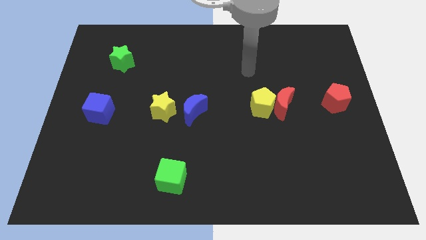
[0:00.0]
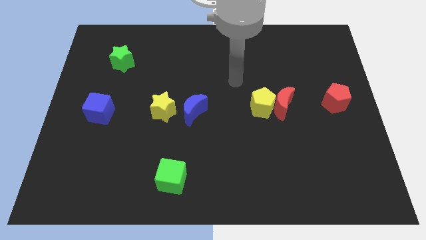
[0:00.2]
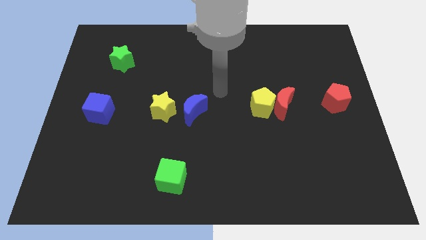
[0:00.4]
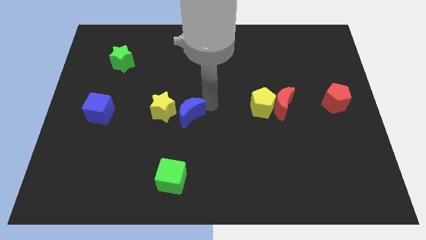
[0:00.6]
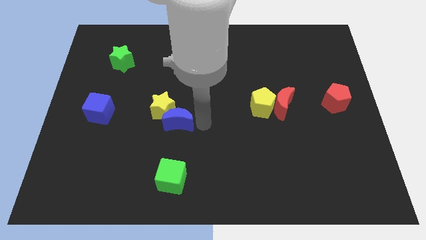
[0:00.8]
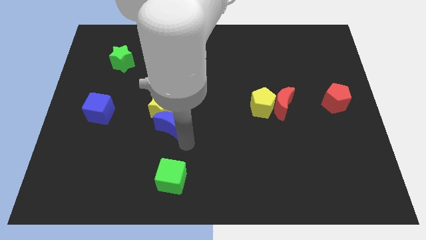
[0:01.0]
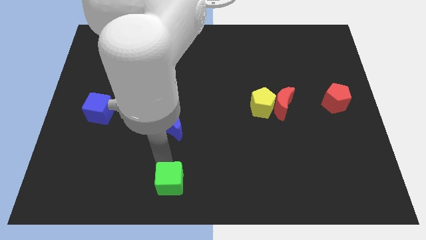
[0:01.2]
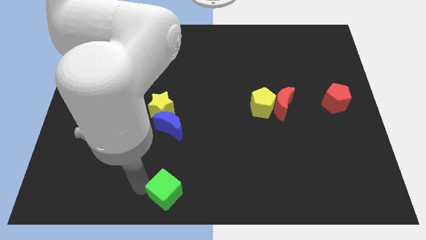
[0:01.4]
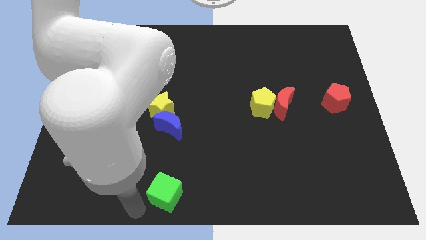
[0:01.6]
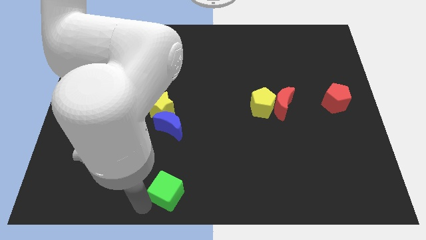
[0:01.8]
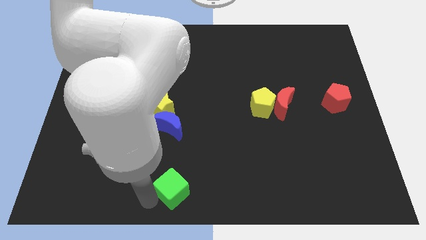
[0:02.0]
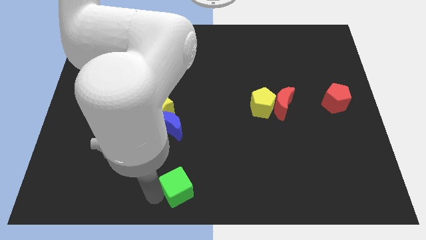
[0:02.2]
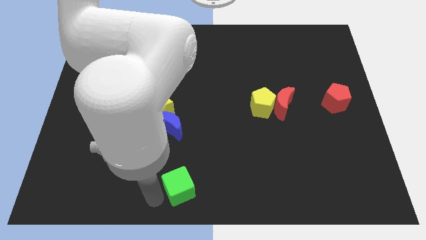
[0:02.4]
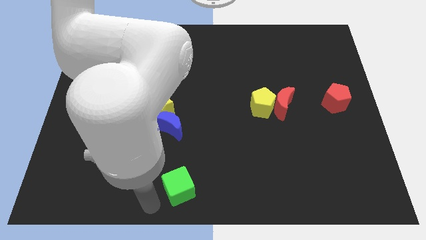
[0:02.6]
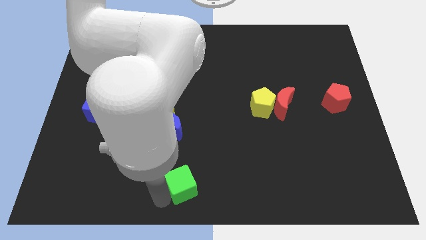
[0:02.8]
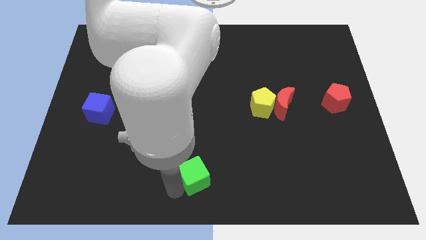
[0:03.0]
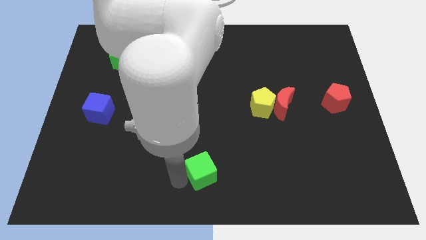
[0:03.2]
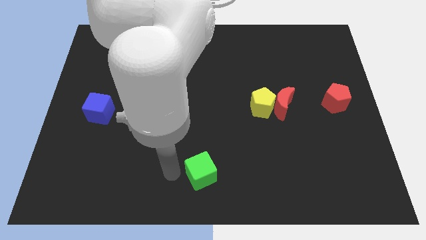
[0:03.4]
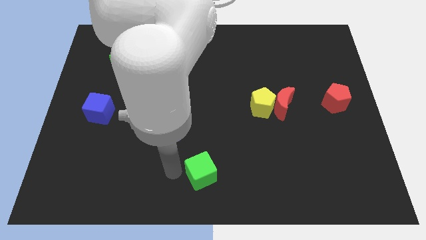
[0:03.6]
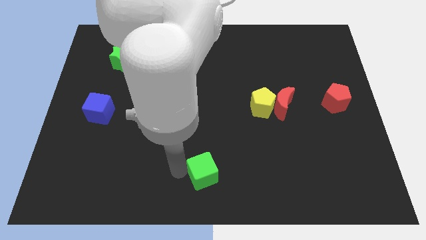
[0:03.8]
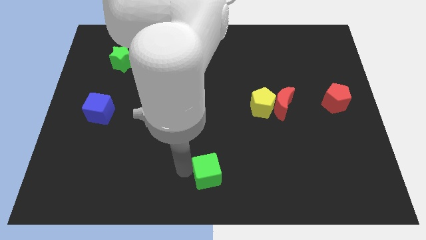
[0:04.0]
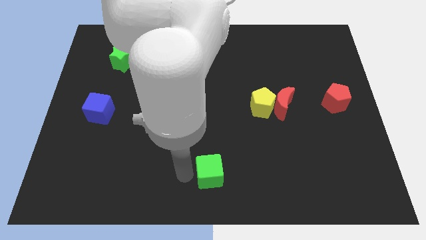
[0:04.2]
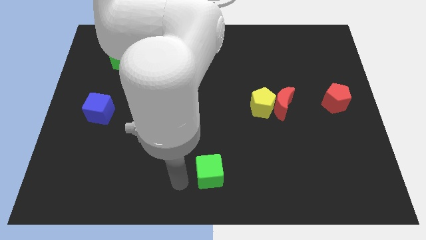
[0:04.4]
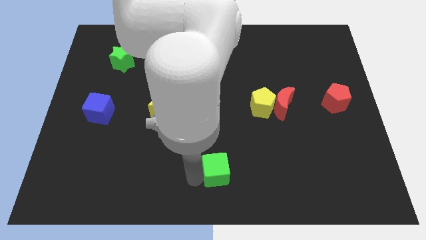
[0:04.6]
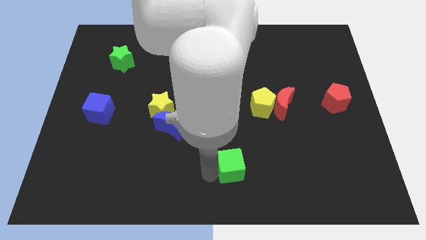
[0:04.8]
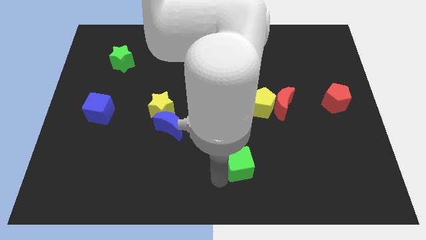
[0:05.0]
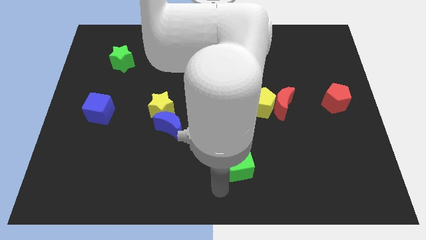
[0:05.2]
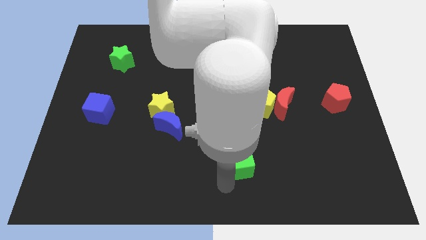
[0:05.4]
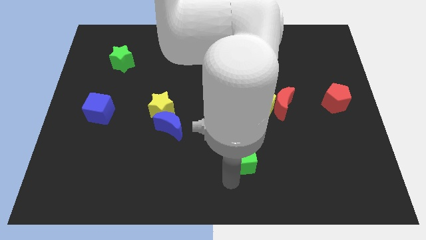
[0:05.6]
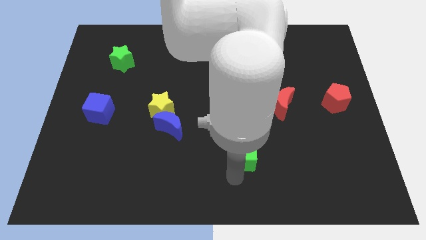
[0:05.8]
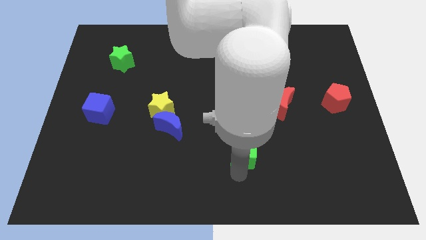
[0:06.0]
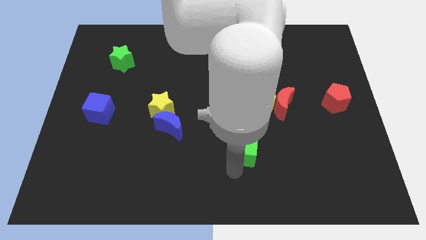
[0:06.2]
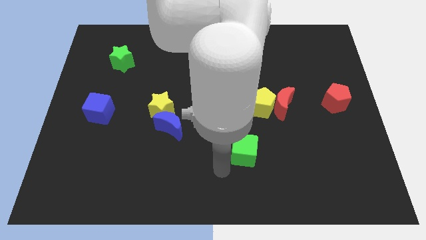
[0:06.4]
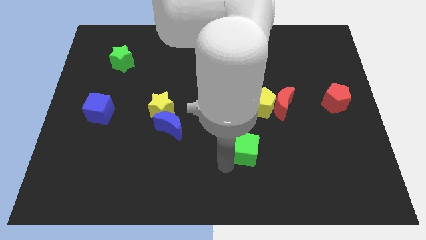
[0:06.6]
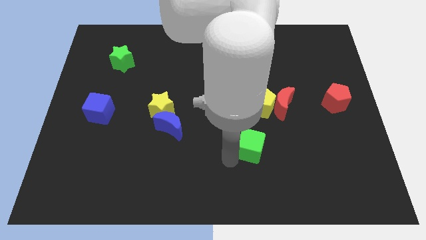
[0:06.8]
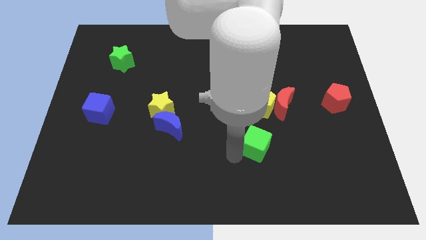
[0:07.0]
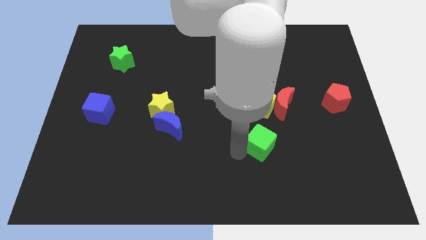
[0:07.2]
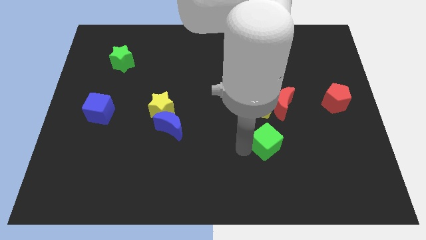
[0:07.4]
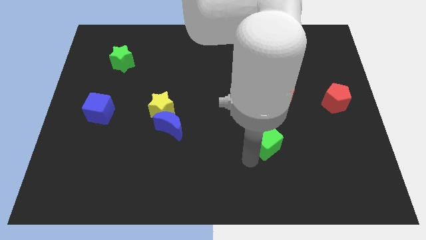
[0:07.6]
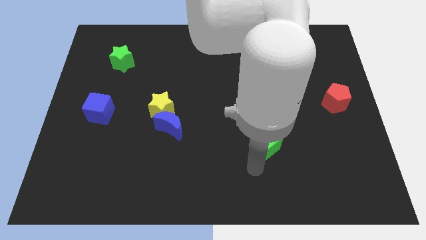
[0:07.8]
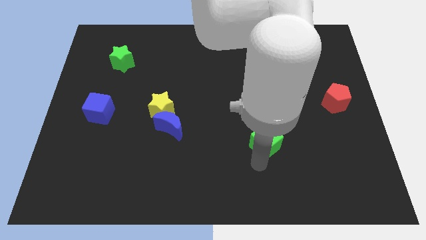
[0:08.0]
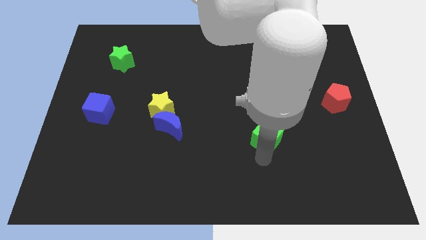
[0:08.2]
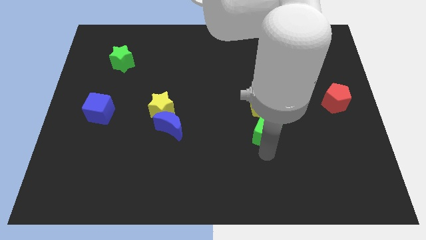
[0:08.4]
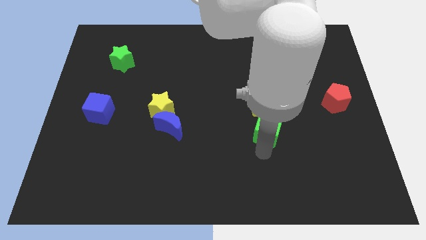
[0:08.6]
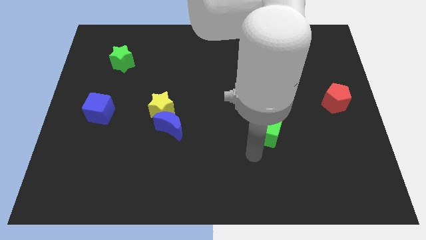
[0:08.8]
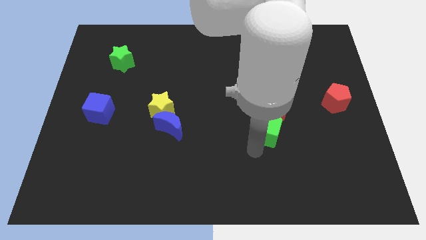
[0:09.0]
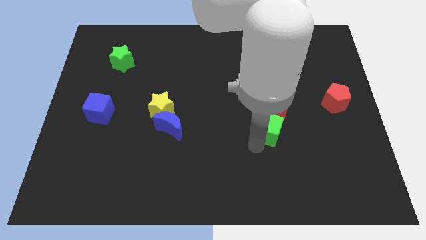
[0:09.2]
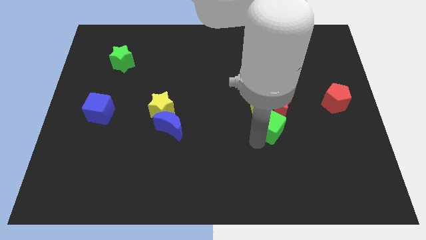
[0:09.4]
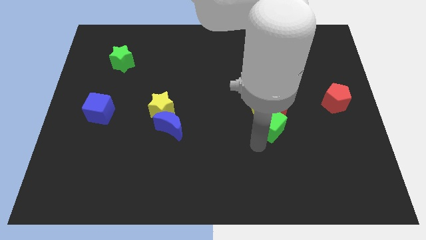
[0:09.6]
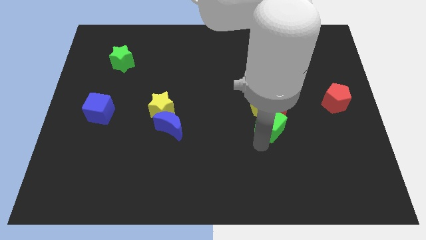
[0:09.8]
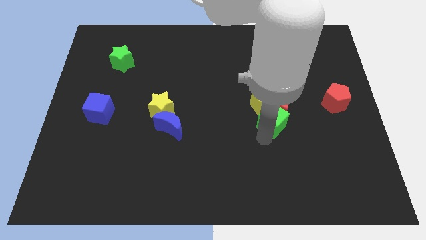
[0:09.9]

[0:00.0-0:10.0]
push the green cube to the red moon

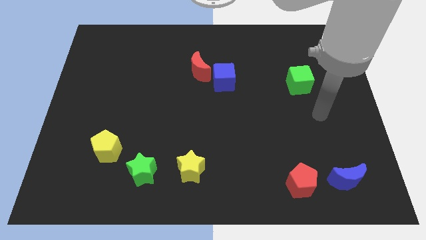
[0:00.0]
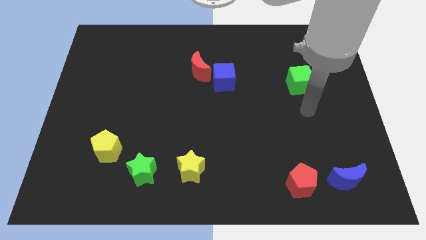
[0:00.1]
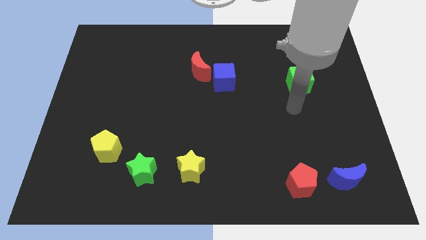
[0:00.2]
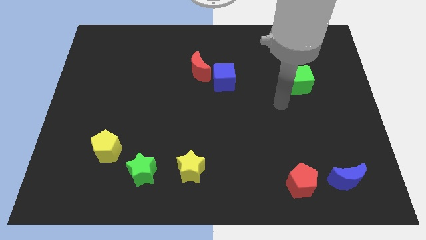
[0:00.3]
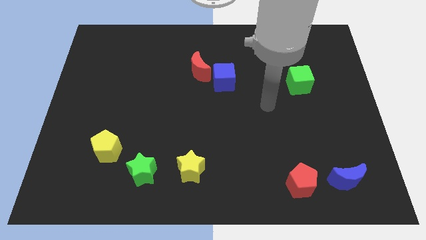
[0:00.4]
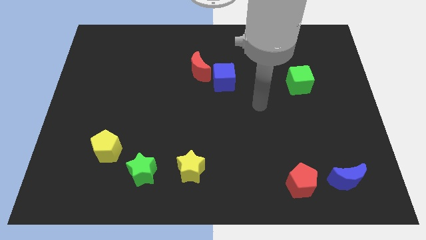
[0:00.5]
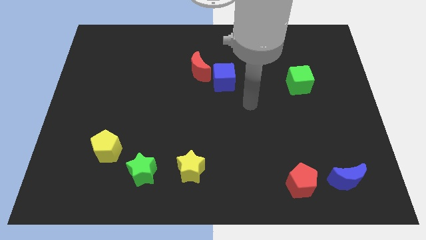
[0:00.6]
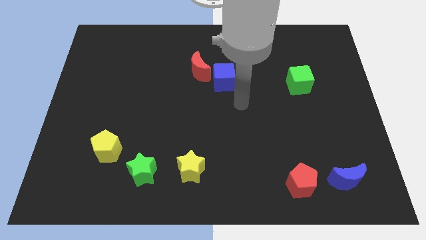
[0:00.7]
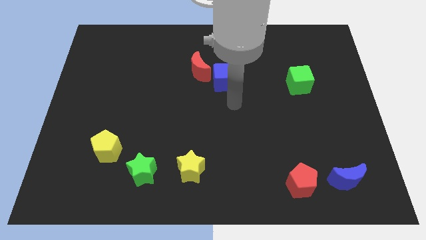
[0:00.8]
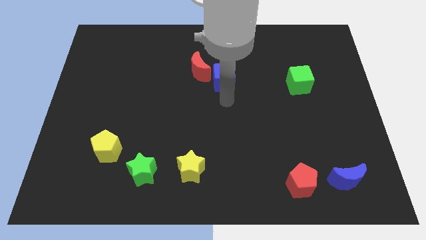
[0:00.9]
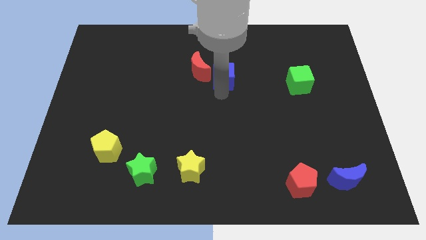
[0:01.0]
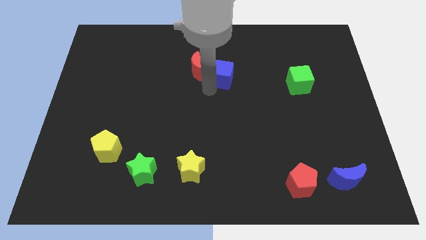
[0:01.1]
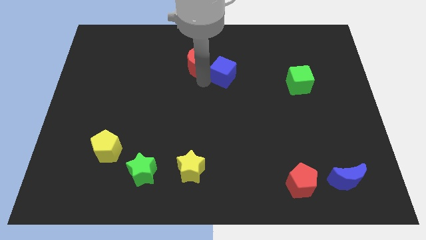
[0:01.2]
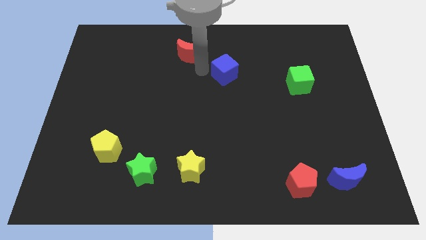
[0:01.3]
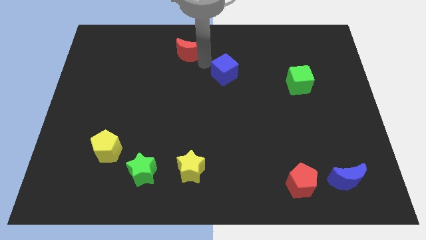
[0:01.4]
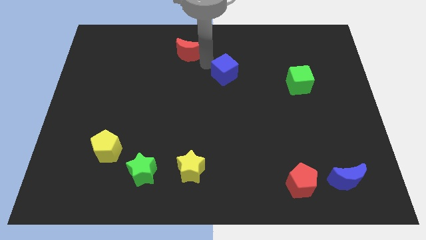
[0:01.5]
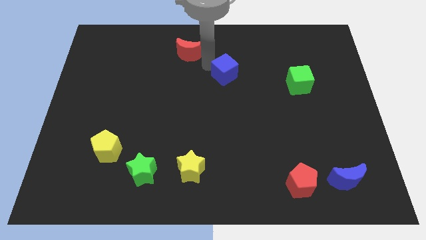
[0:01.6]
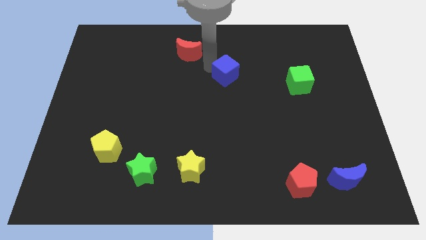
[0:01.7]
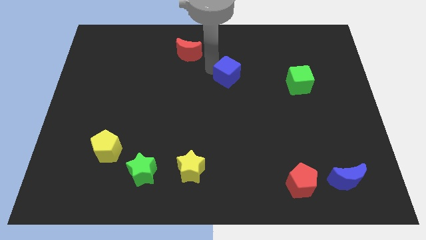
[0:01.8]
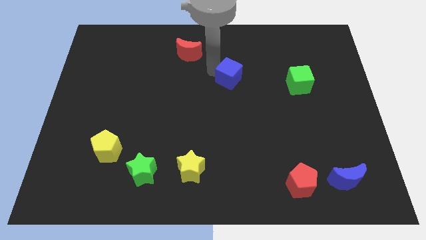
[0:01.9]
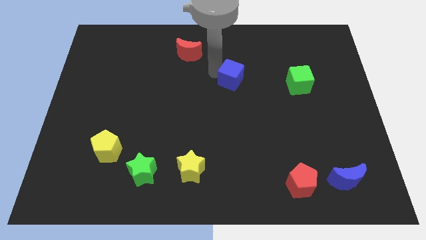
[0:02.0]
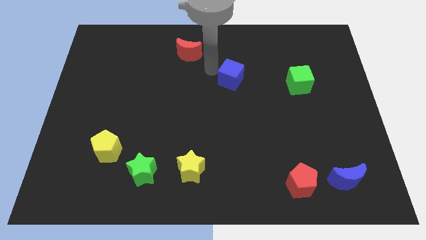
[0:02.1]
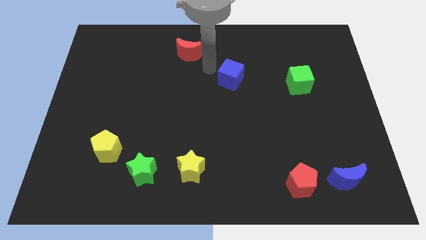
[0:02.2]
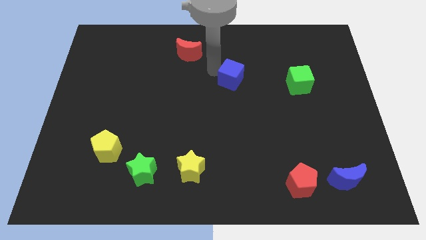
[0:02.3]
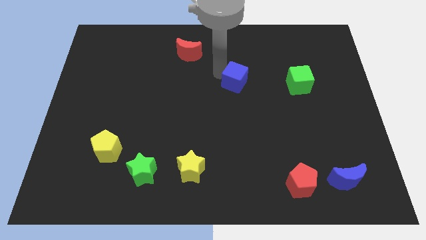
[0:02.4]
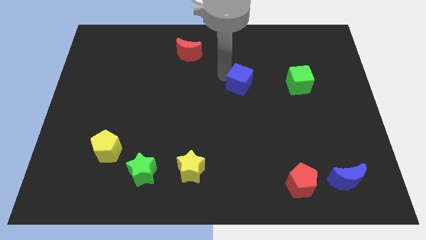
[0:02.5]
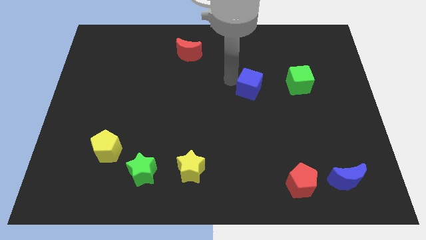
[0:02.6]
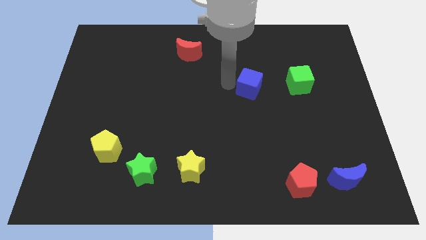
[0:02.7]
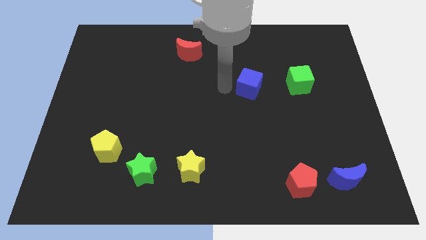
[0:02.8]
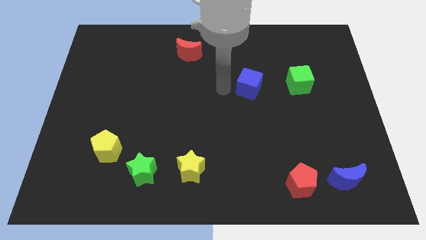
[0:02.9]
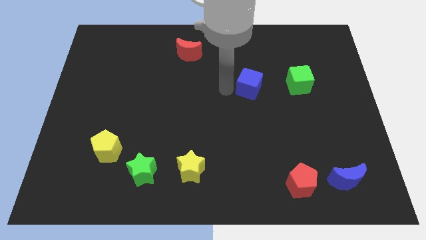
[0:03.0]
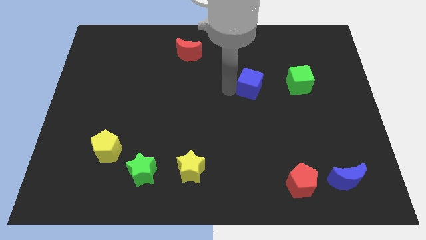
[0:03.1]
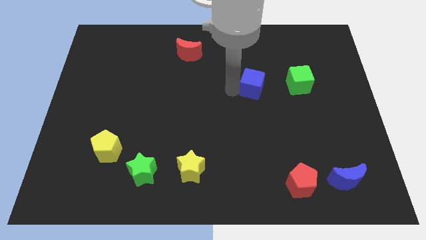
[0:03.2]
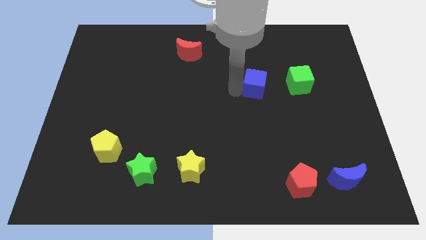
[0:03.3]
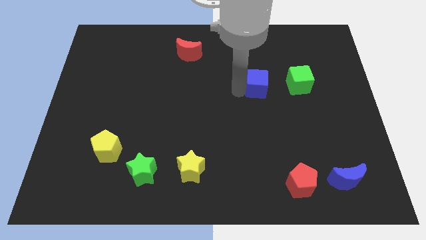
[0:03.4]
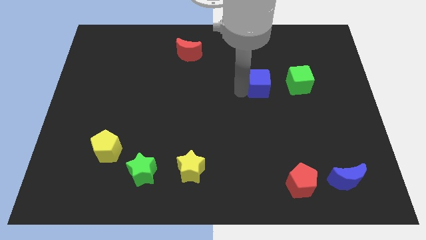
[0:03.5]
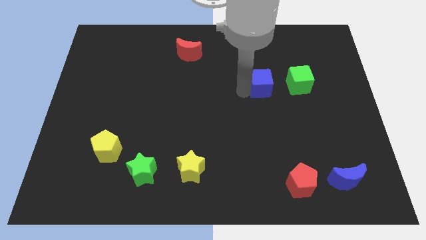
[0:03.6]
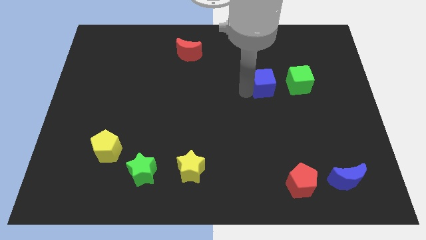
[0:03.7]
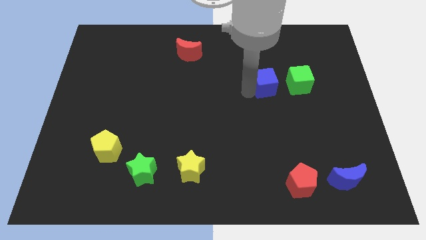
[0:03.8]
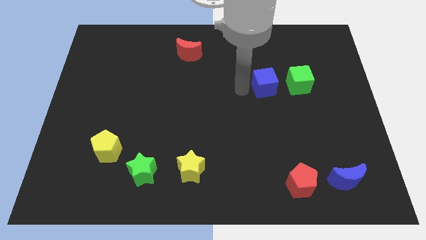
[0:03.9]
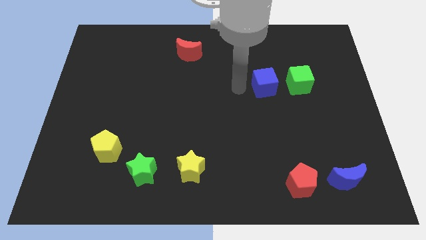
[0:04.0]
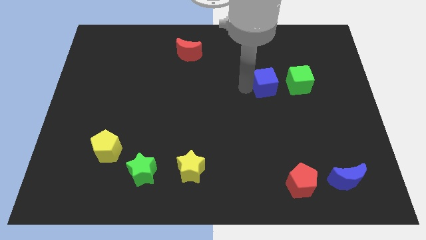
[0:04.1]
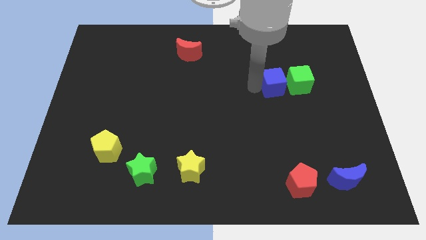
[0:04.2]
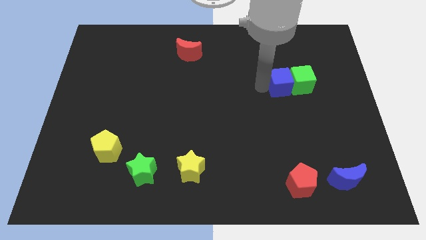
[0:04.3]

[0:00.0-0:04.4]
slide the blue cube to the green cube
